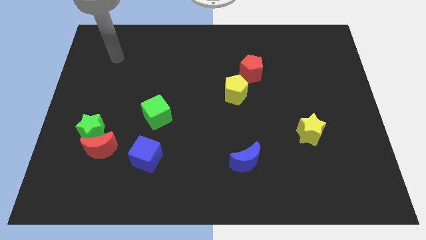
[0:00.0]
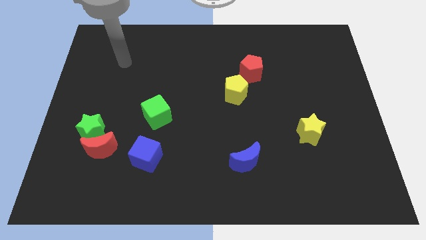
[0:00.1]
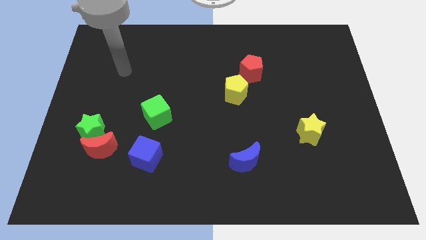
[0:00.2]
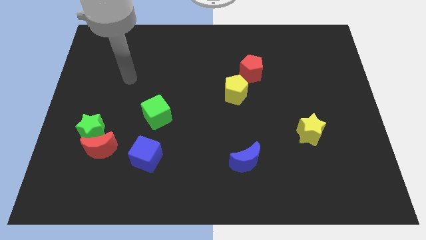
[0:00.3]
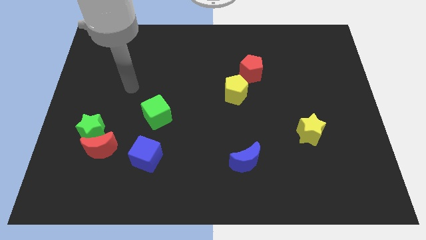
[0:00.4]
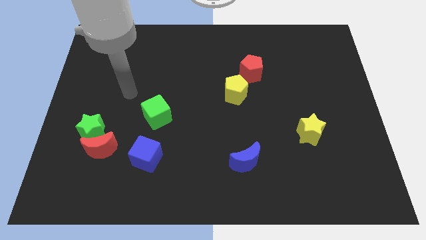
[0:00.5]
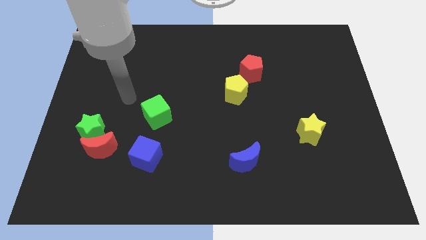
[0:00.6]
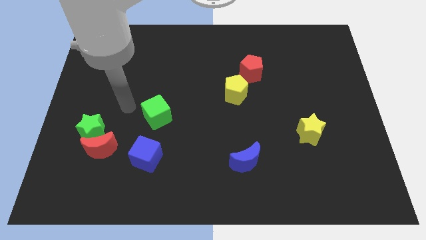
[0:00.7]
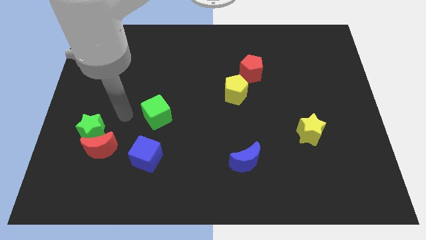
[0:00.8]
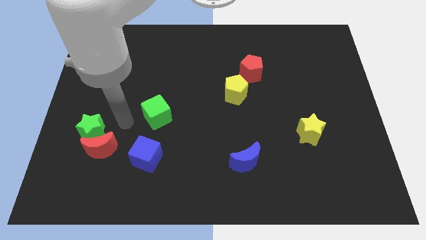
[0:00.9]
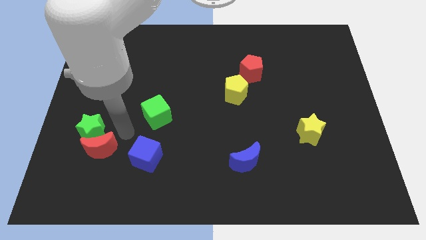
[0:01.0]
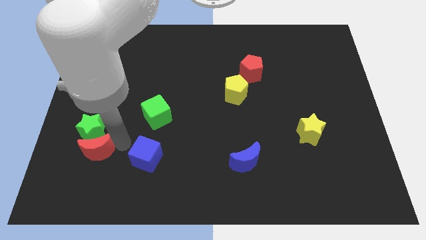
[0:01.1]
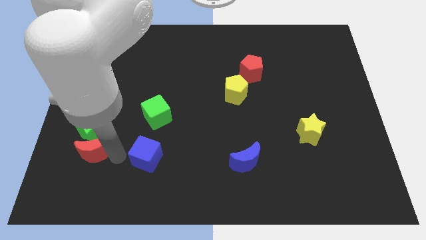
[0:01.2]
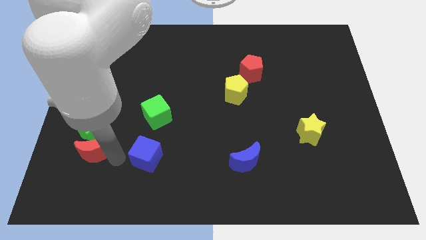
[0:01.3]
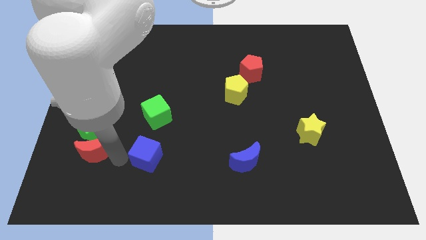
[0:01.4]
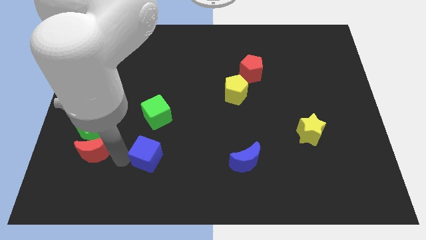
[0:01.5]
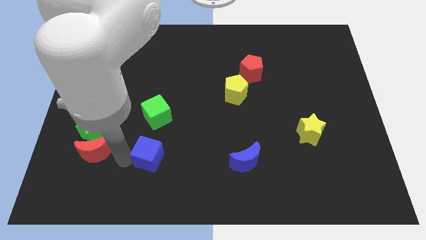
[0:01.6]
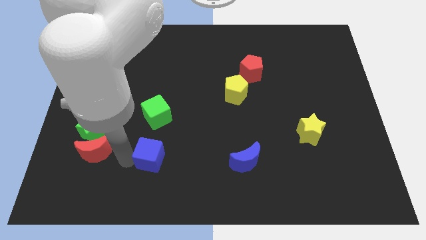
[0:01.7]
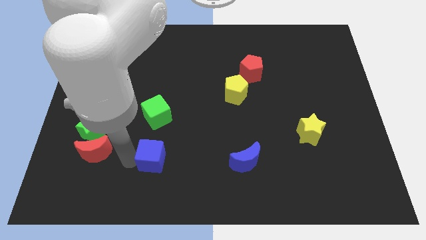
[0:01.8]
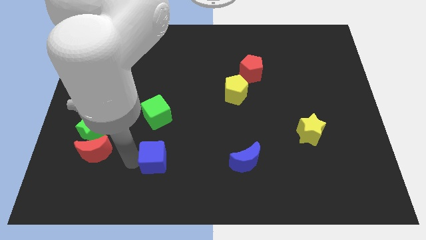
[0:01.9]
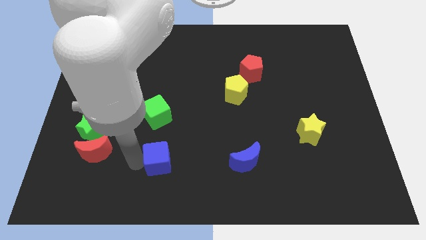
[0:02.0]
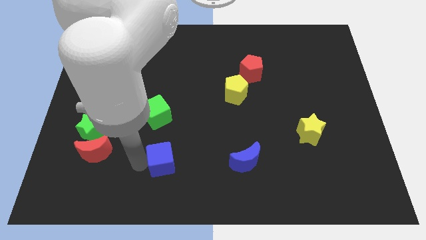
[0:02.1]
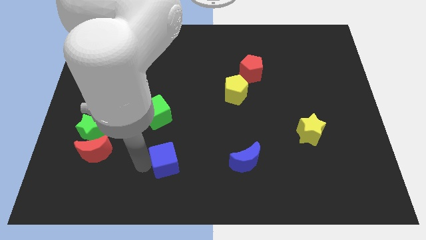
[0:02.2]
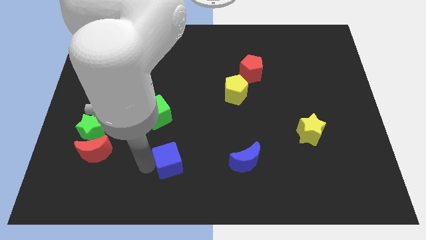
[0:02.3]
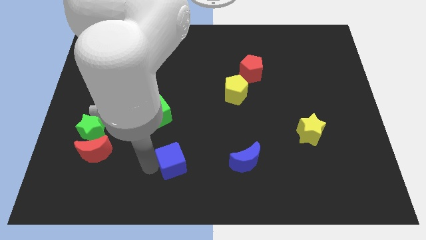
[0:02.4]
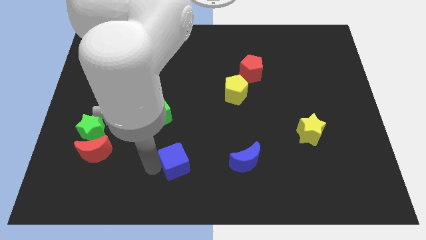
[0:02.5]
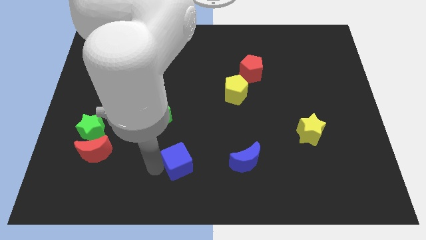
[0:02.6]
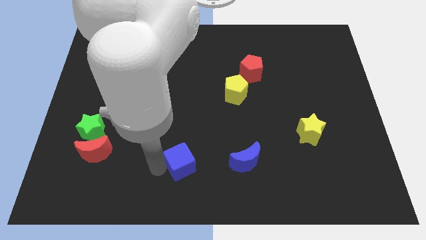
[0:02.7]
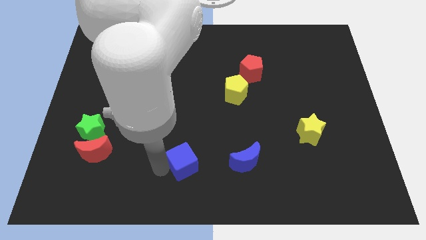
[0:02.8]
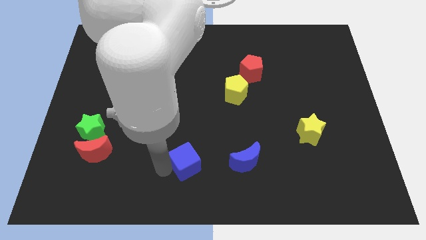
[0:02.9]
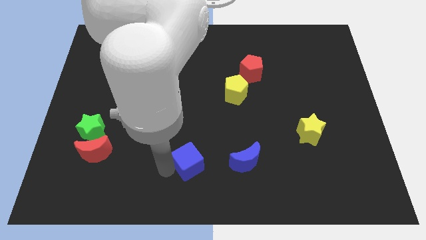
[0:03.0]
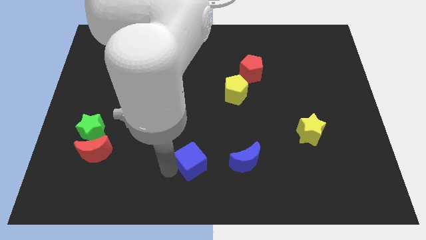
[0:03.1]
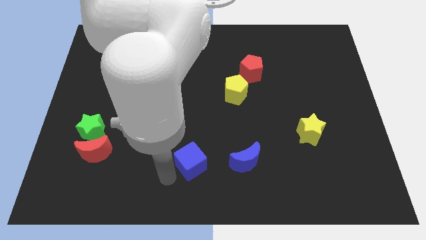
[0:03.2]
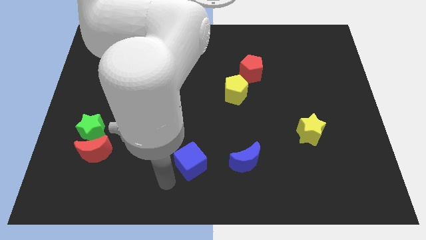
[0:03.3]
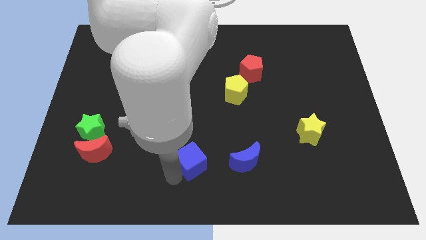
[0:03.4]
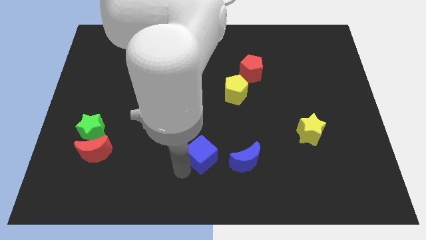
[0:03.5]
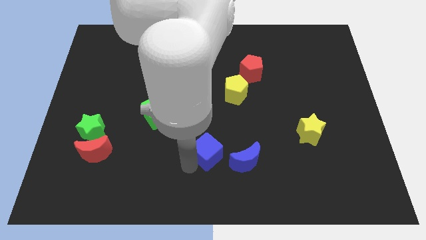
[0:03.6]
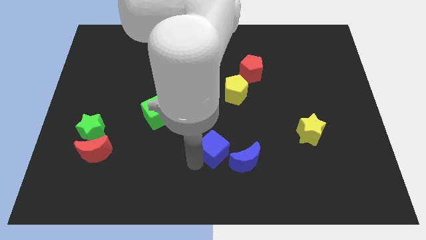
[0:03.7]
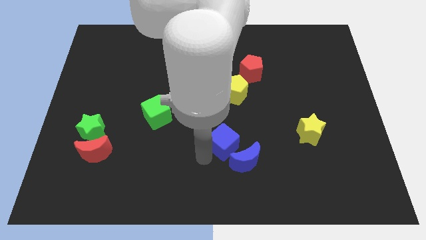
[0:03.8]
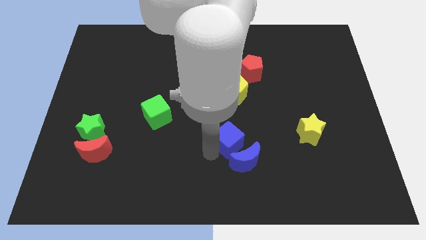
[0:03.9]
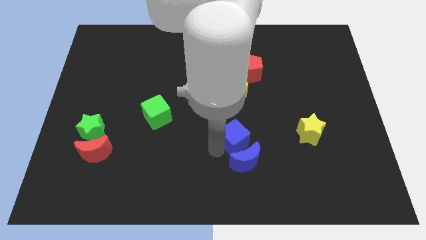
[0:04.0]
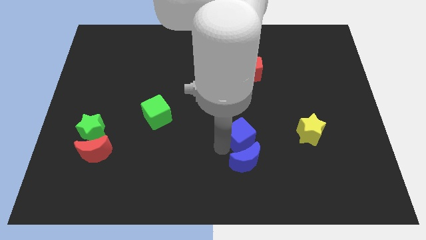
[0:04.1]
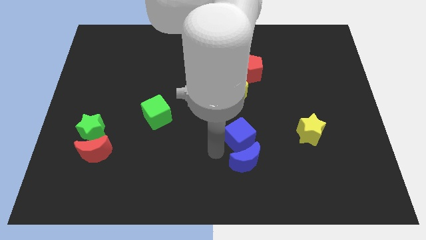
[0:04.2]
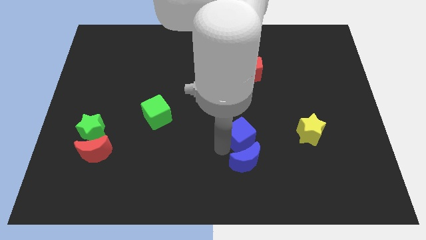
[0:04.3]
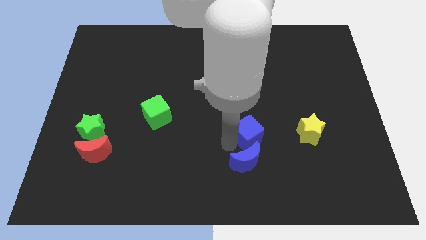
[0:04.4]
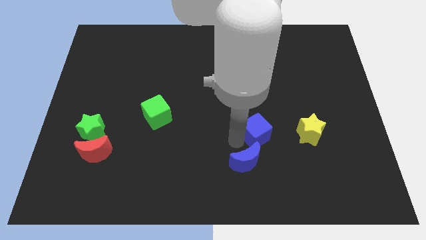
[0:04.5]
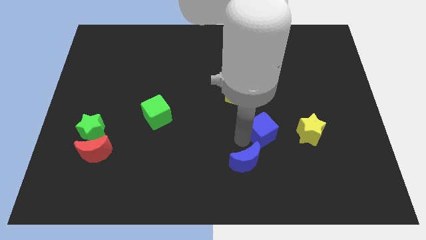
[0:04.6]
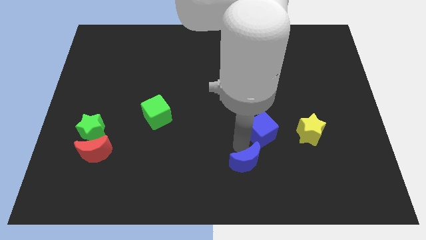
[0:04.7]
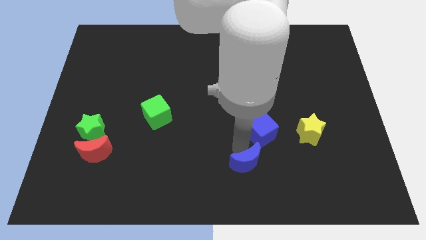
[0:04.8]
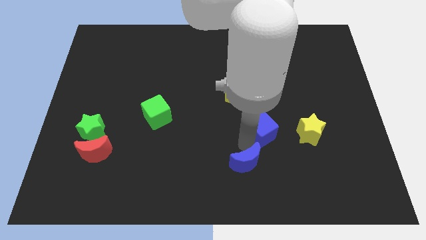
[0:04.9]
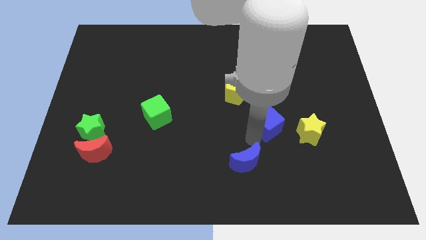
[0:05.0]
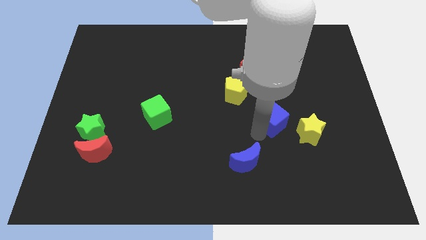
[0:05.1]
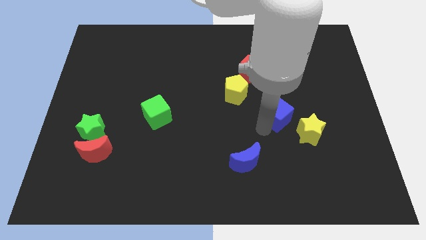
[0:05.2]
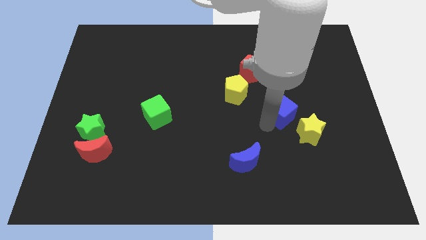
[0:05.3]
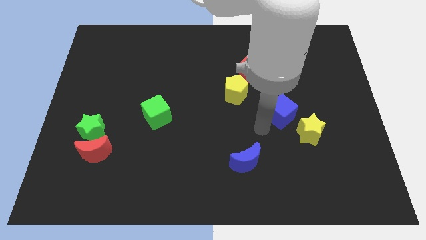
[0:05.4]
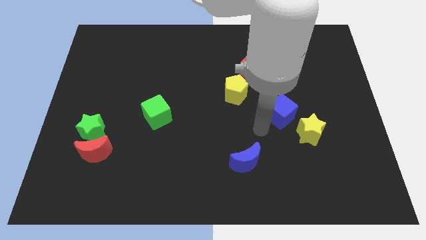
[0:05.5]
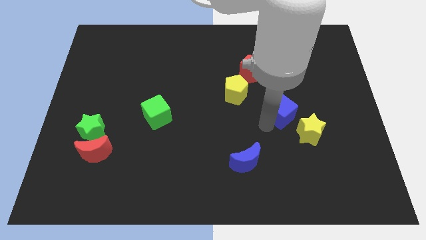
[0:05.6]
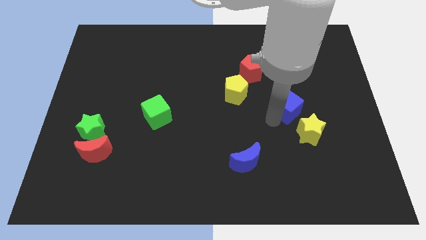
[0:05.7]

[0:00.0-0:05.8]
push the blue cube above the yellow star

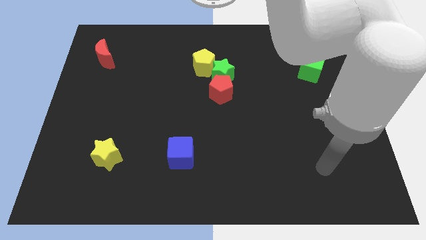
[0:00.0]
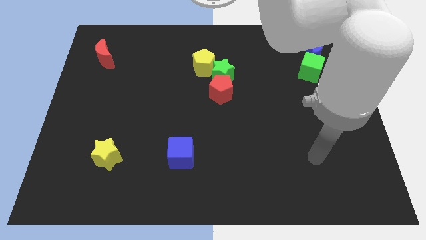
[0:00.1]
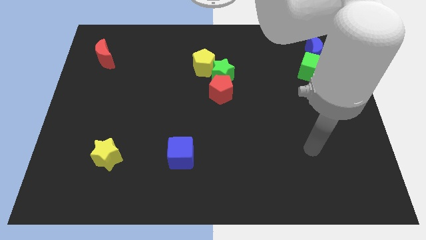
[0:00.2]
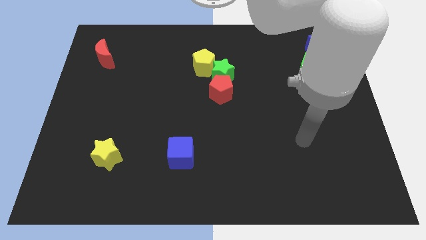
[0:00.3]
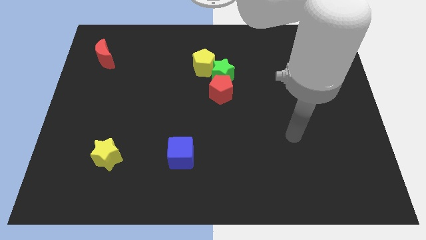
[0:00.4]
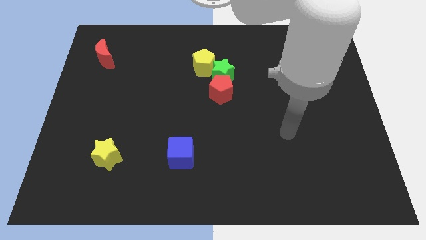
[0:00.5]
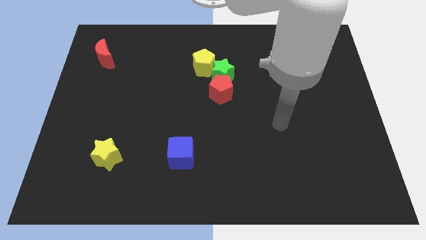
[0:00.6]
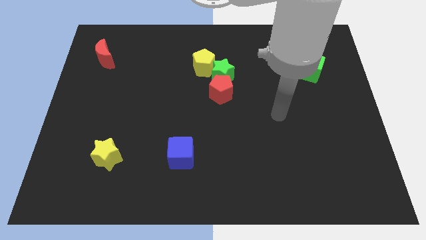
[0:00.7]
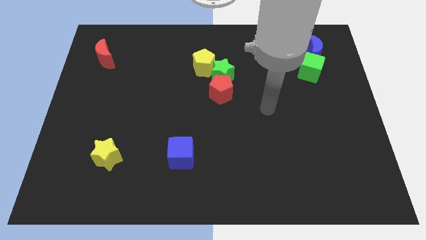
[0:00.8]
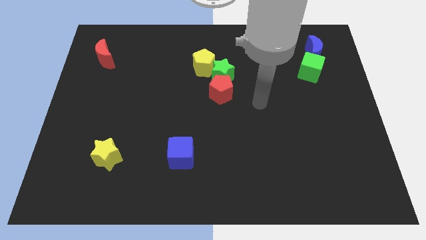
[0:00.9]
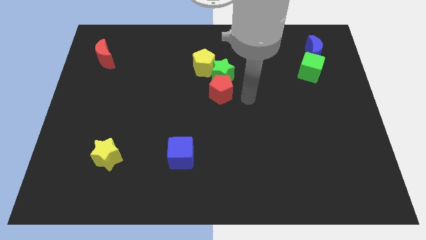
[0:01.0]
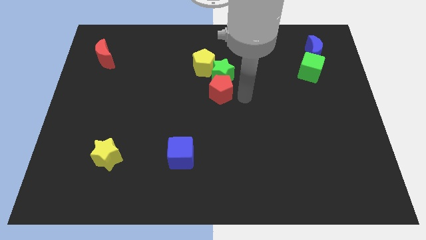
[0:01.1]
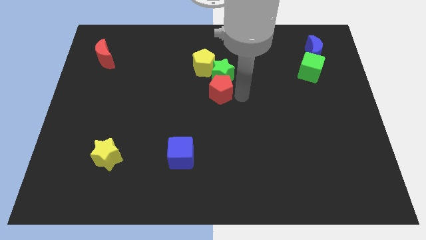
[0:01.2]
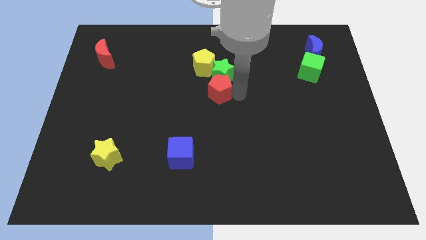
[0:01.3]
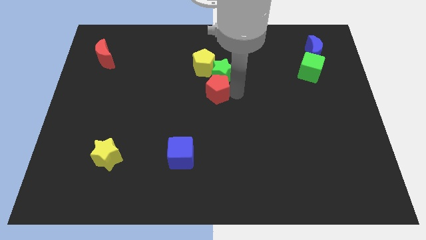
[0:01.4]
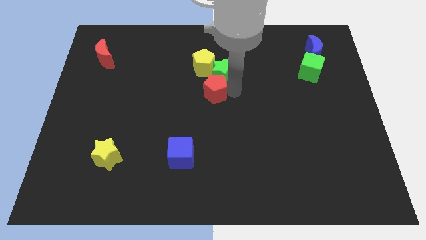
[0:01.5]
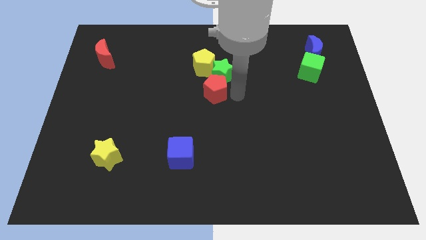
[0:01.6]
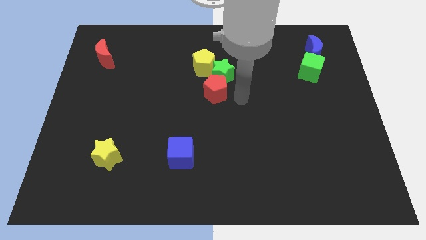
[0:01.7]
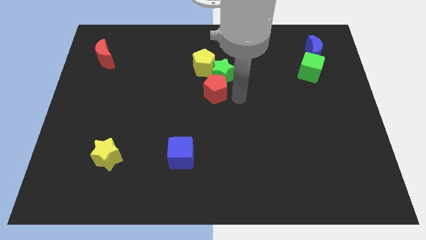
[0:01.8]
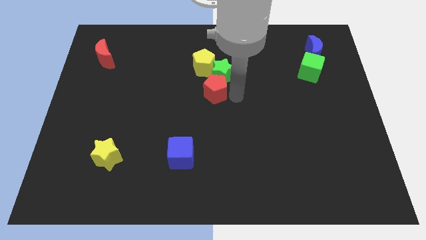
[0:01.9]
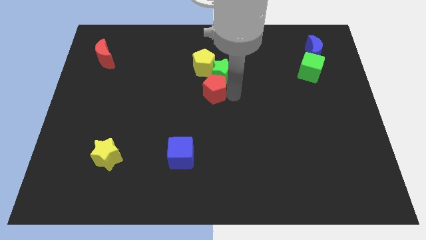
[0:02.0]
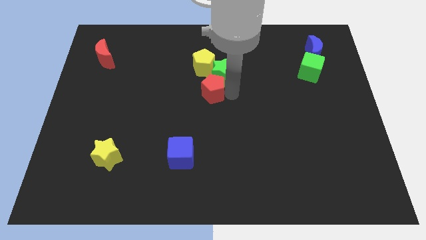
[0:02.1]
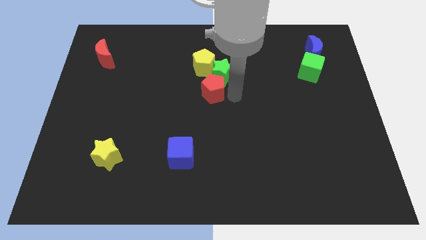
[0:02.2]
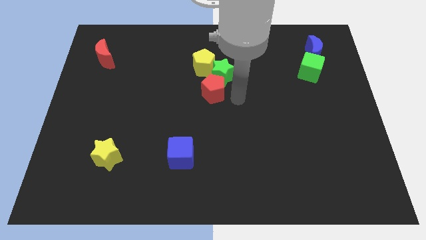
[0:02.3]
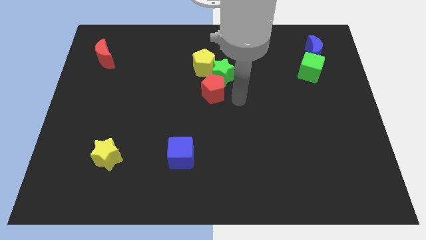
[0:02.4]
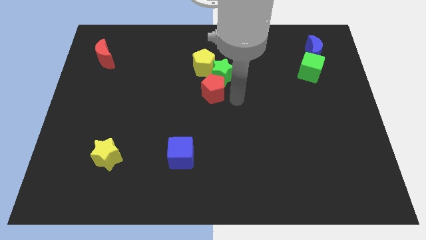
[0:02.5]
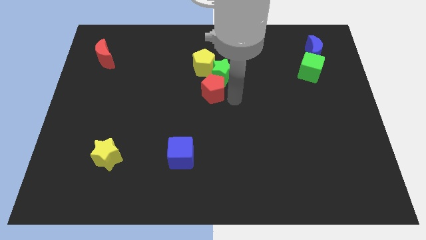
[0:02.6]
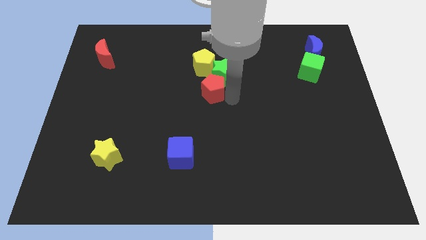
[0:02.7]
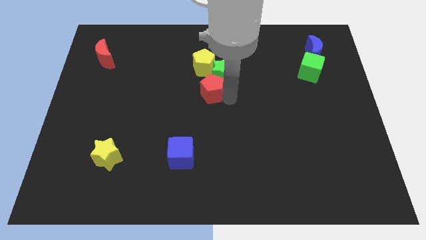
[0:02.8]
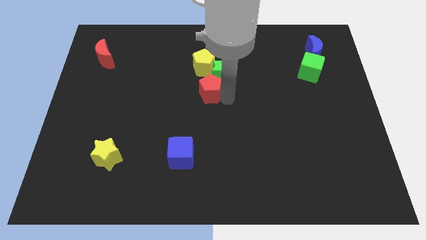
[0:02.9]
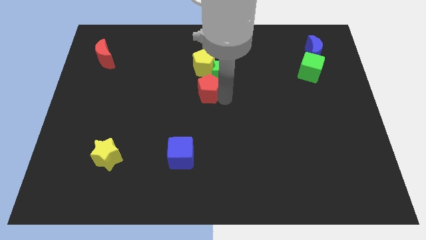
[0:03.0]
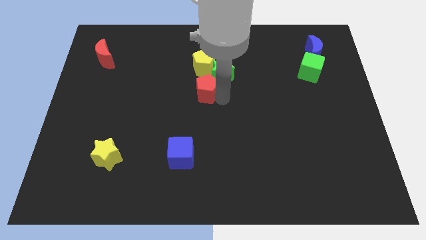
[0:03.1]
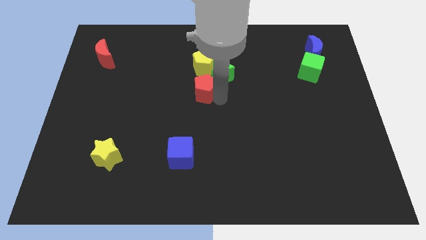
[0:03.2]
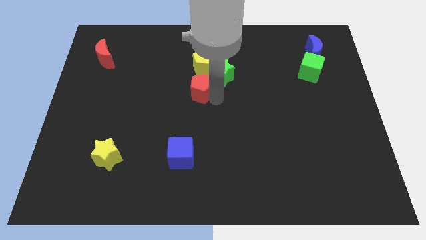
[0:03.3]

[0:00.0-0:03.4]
move the red pentagon to the left side of the green star
